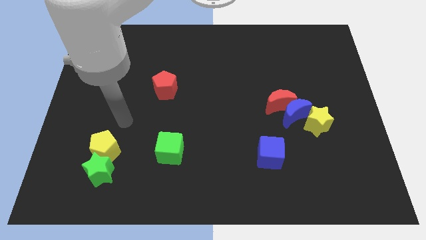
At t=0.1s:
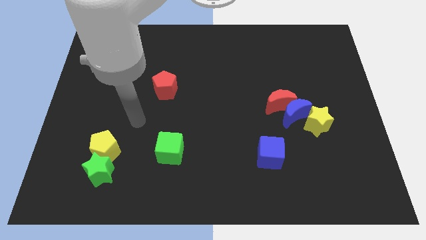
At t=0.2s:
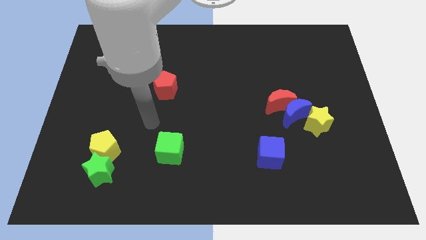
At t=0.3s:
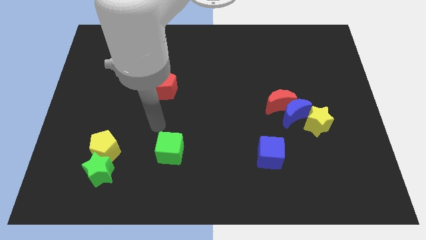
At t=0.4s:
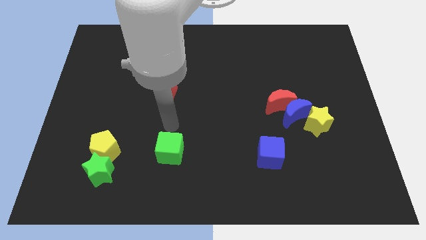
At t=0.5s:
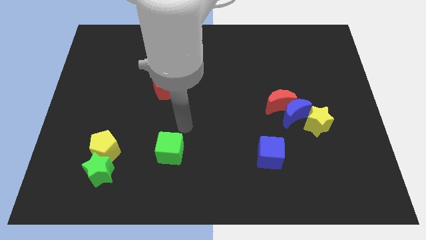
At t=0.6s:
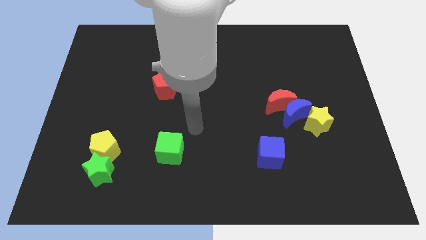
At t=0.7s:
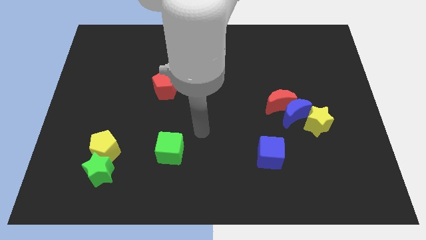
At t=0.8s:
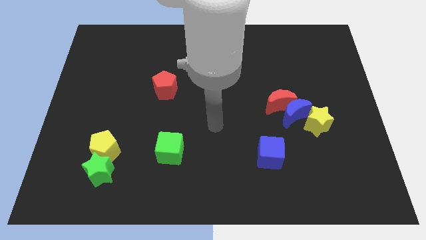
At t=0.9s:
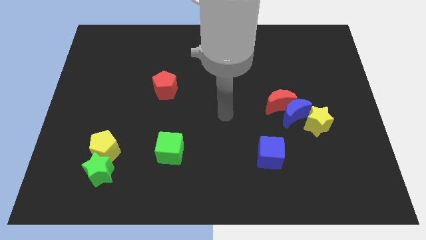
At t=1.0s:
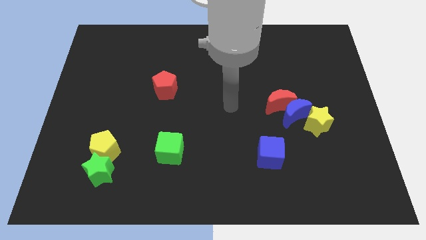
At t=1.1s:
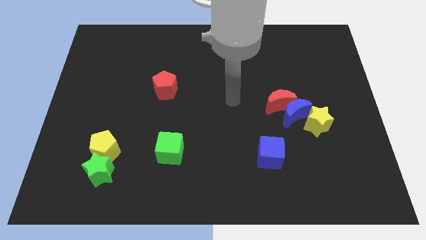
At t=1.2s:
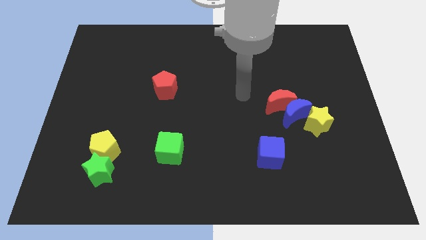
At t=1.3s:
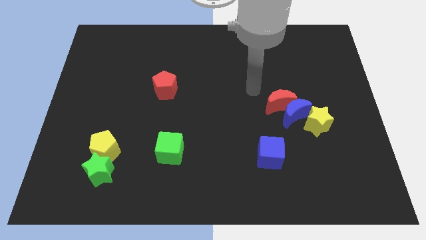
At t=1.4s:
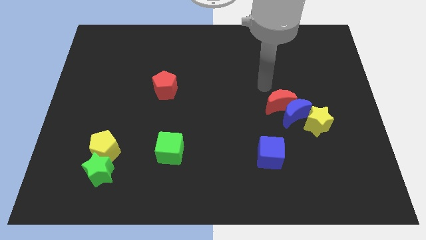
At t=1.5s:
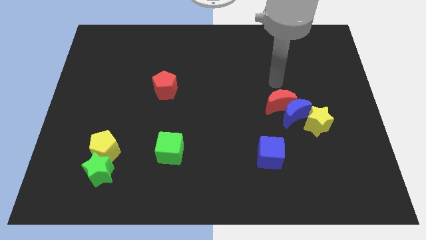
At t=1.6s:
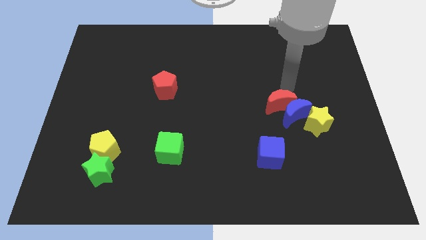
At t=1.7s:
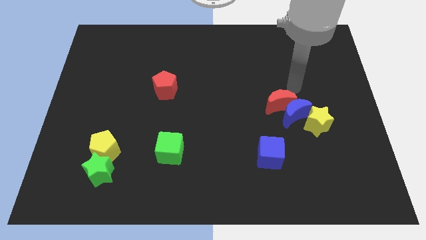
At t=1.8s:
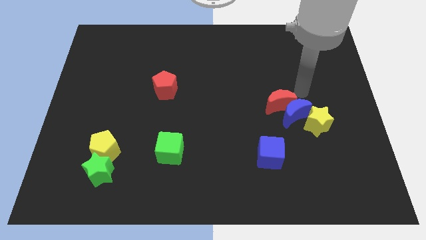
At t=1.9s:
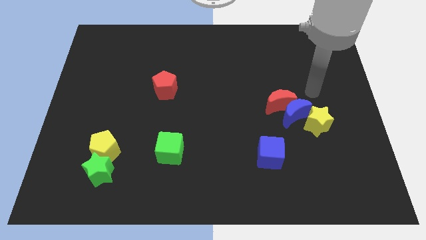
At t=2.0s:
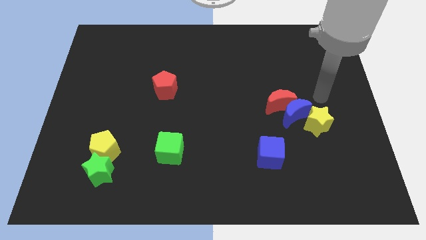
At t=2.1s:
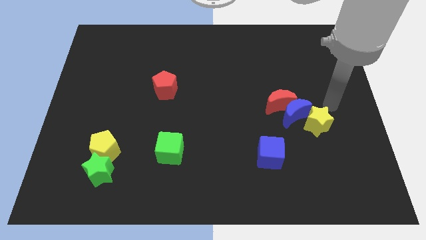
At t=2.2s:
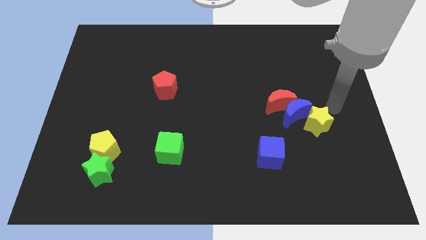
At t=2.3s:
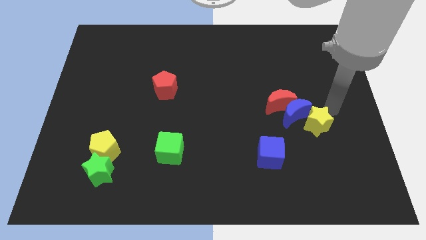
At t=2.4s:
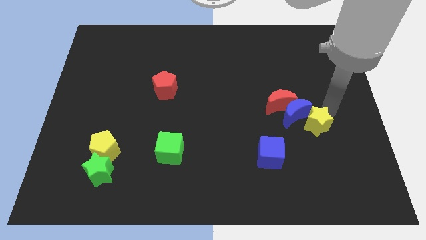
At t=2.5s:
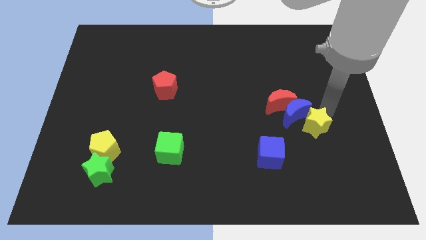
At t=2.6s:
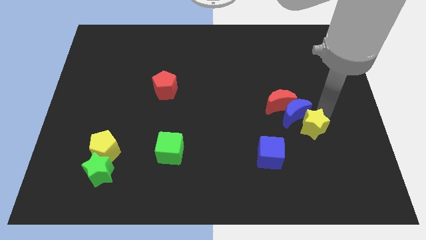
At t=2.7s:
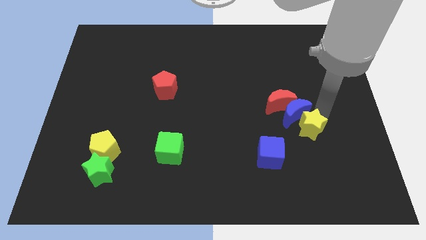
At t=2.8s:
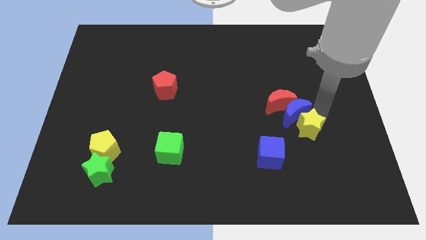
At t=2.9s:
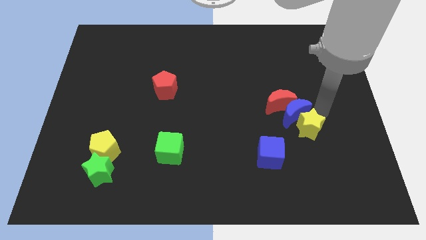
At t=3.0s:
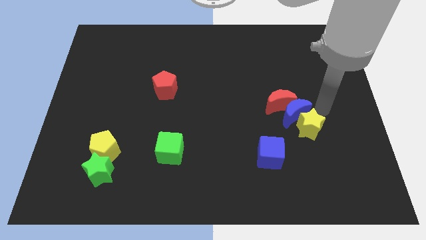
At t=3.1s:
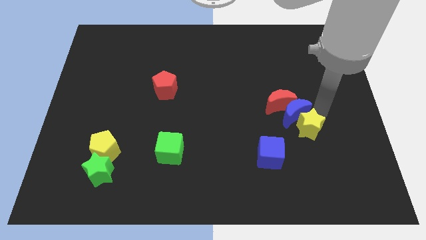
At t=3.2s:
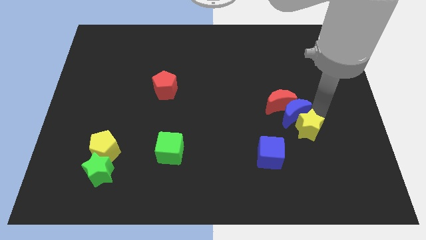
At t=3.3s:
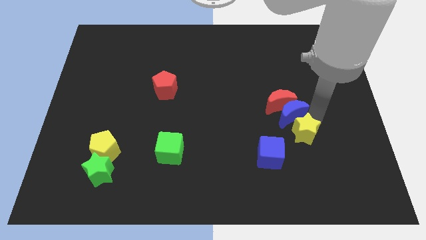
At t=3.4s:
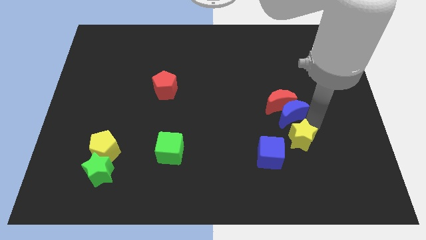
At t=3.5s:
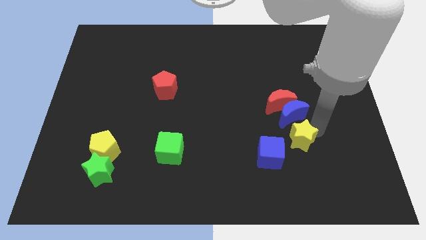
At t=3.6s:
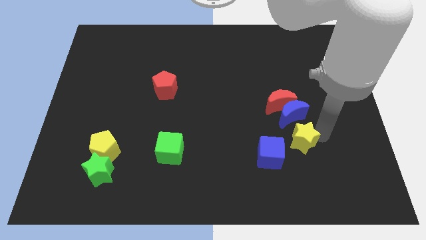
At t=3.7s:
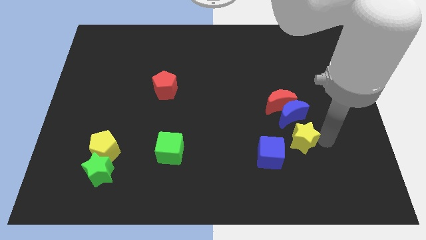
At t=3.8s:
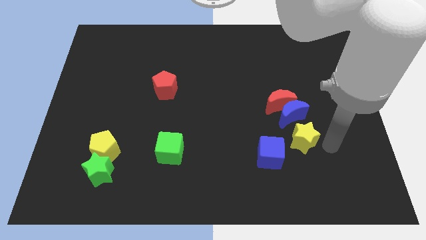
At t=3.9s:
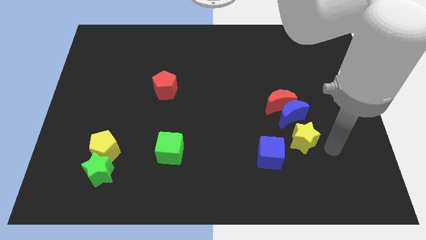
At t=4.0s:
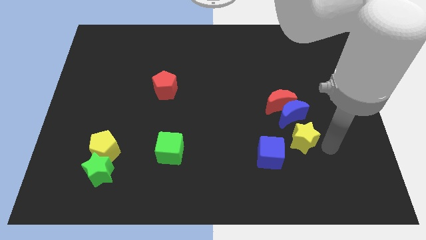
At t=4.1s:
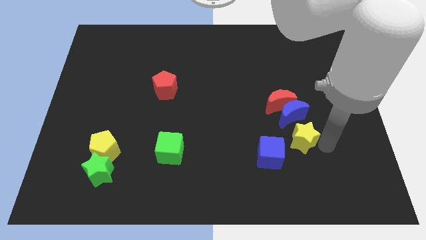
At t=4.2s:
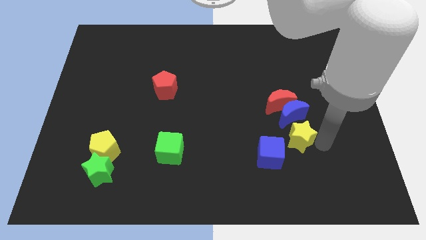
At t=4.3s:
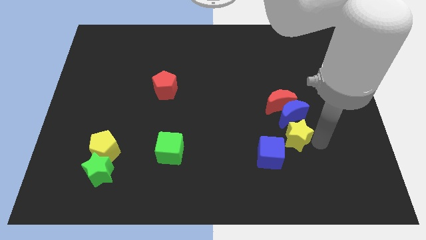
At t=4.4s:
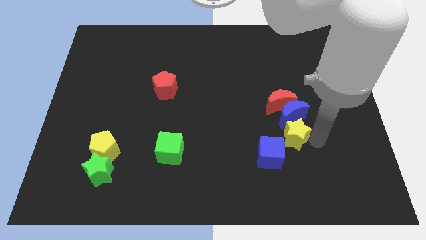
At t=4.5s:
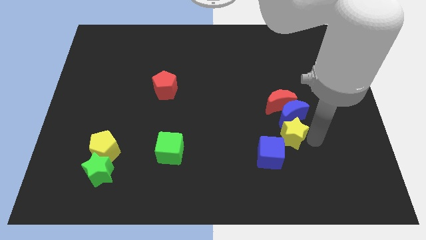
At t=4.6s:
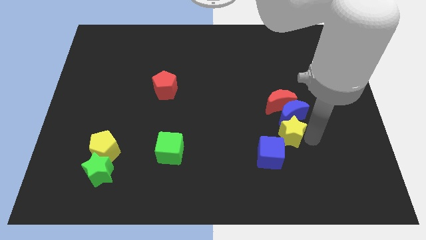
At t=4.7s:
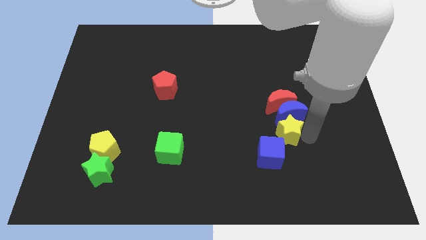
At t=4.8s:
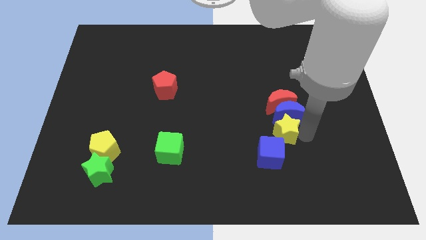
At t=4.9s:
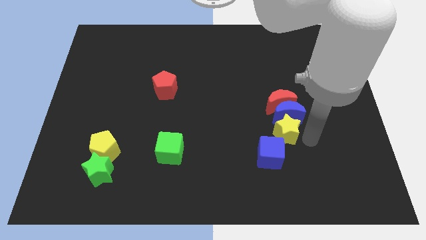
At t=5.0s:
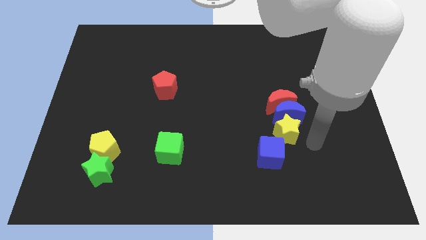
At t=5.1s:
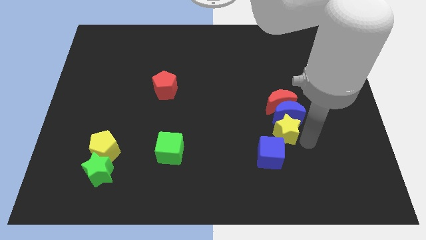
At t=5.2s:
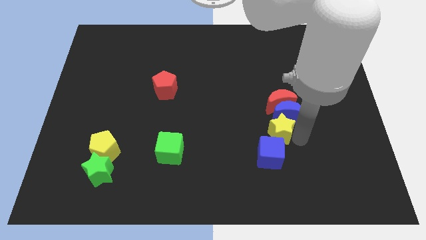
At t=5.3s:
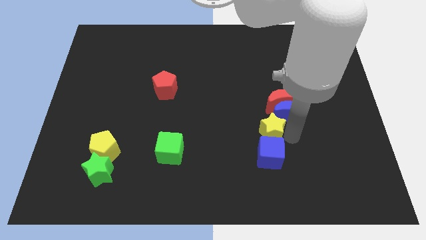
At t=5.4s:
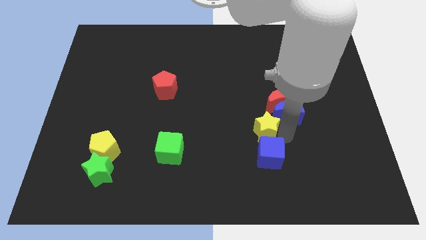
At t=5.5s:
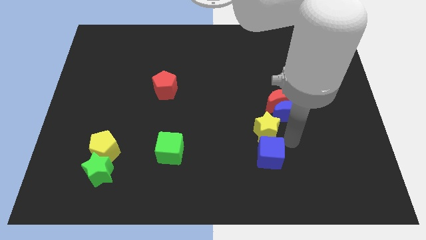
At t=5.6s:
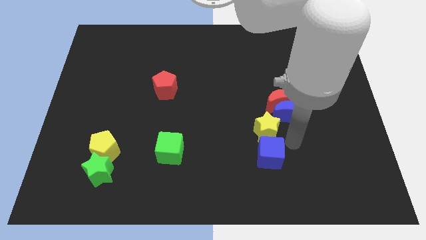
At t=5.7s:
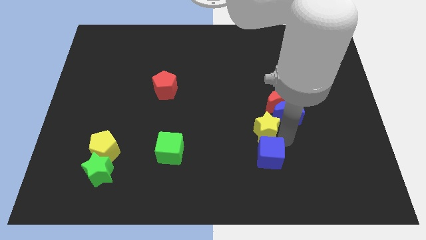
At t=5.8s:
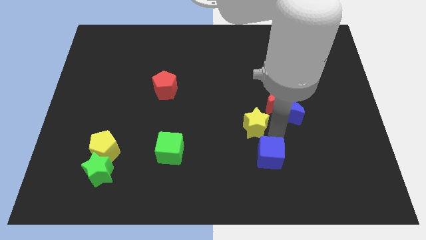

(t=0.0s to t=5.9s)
slide the yellow star to the center
